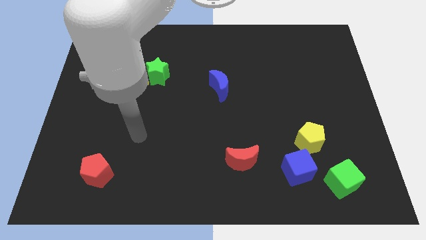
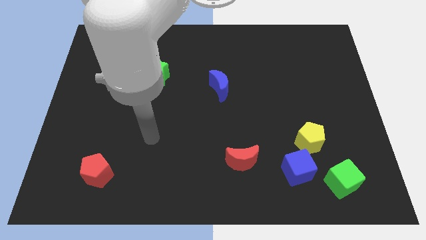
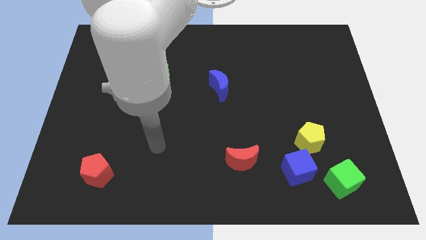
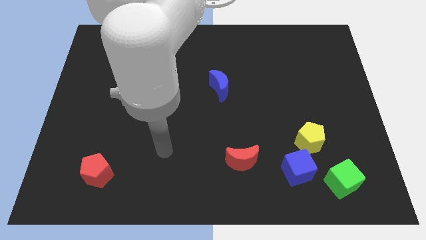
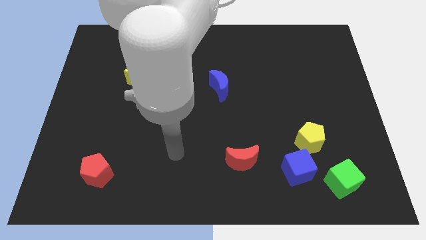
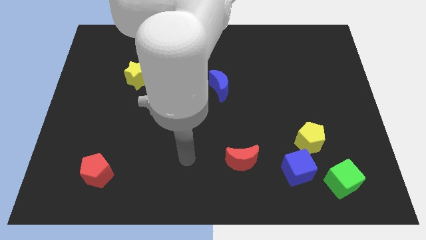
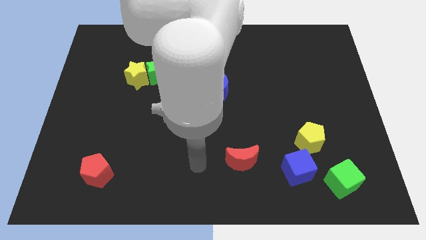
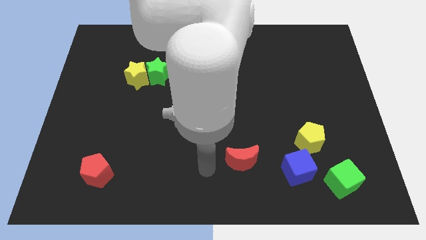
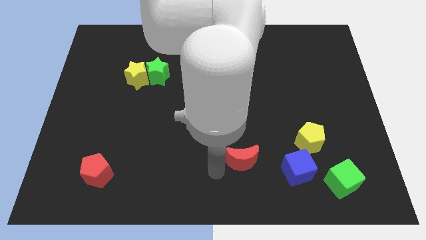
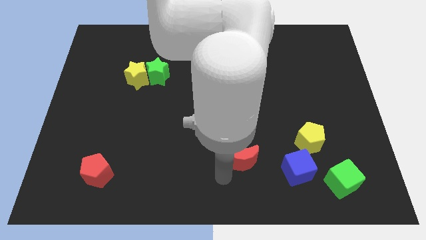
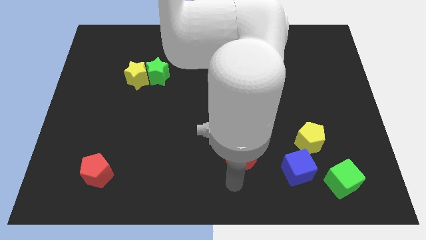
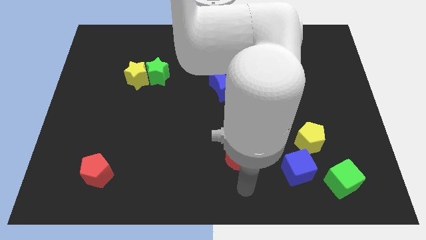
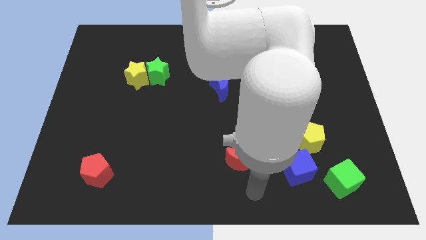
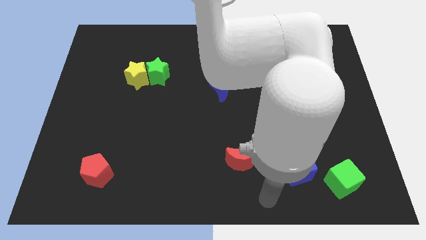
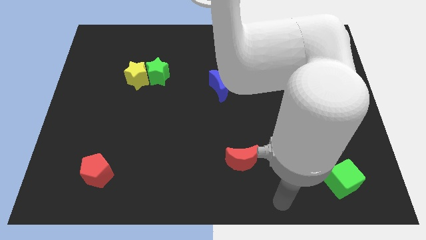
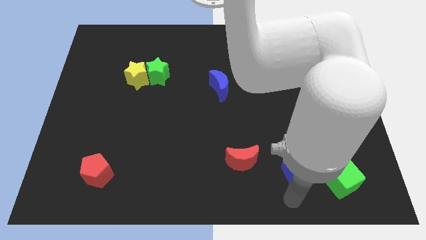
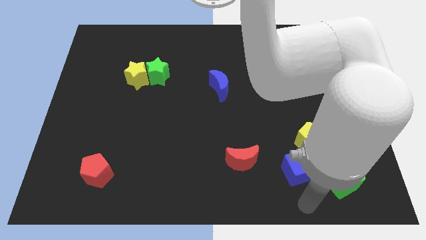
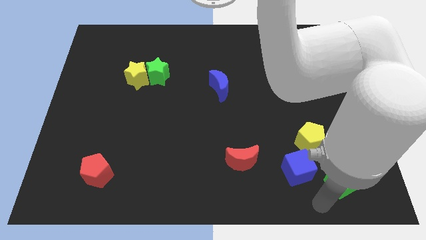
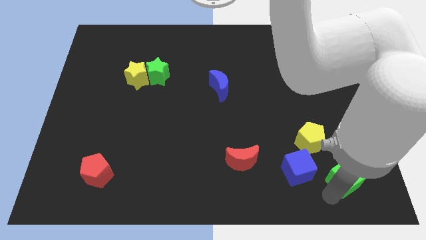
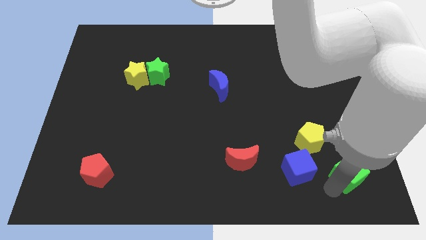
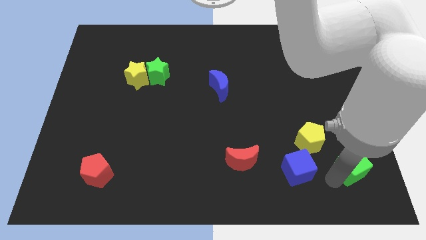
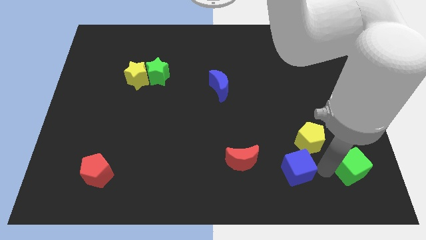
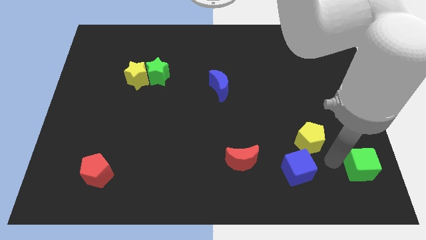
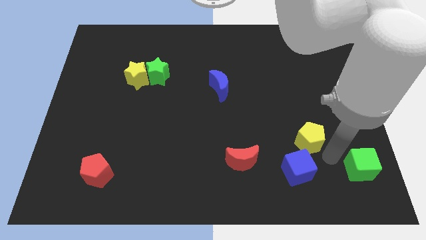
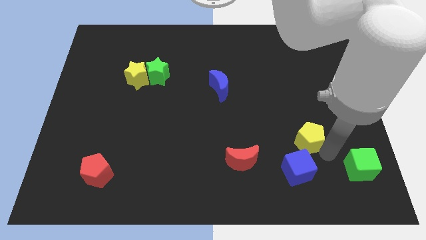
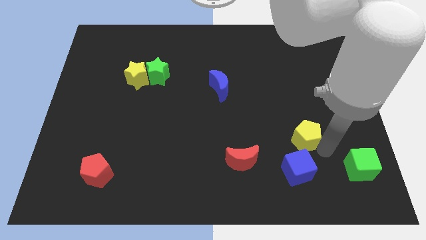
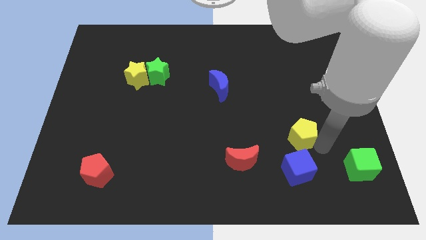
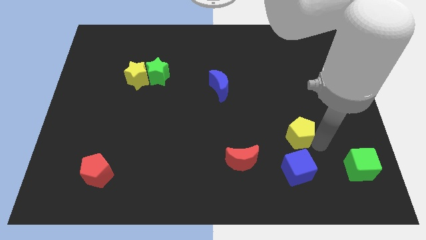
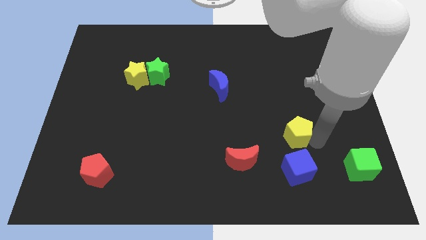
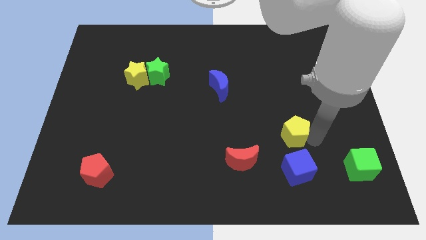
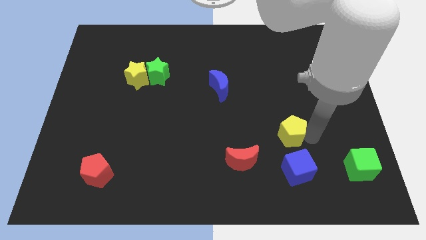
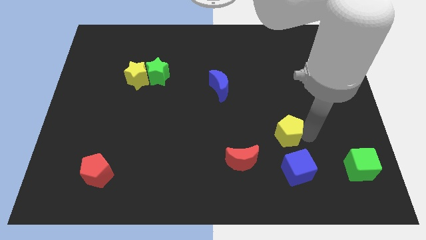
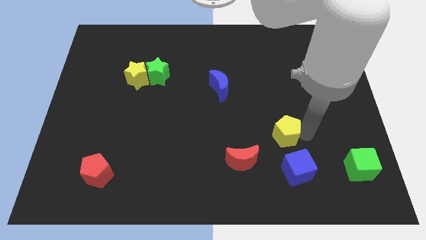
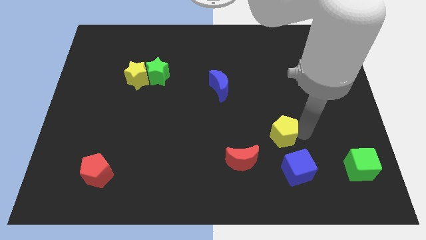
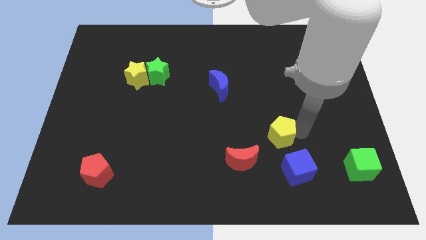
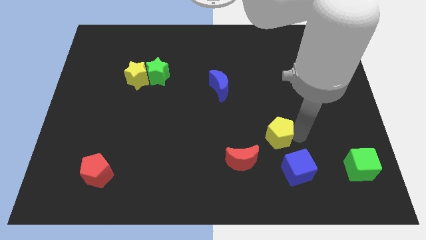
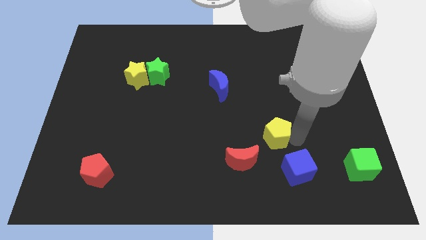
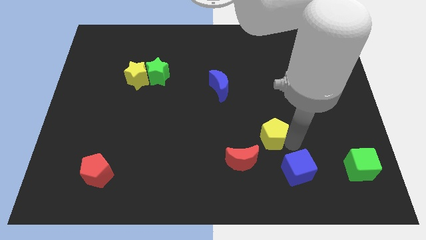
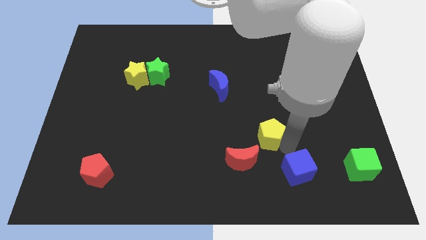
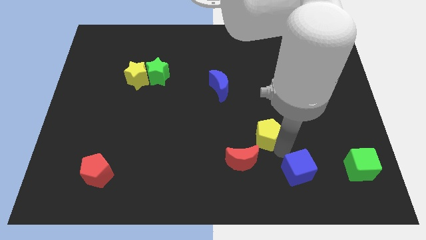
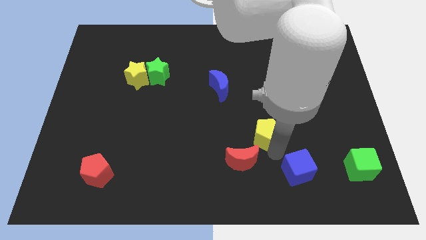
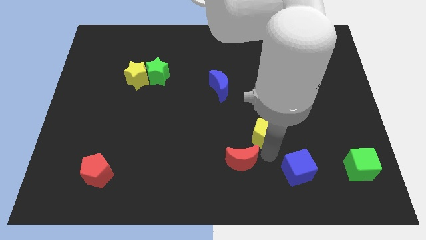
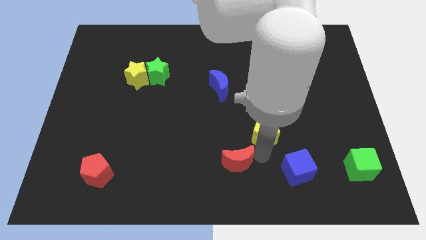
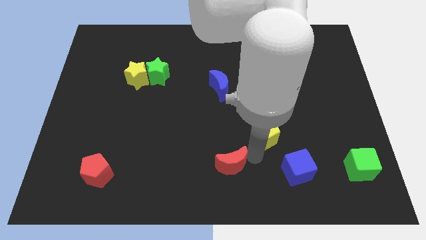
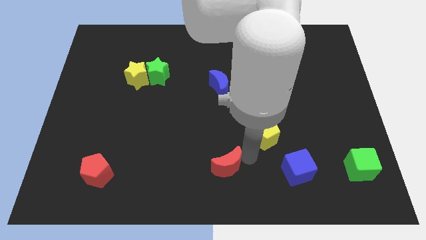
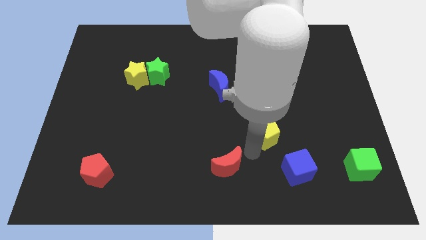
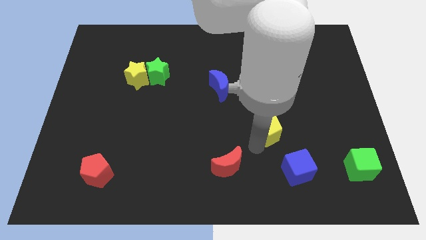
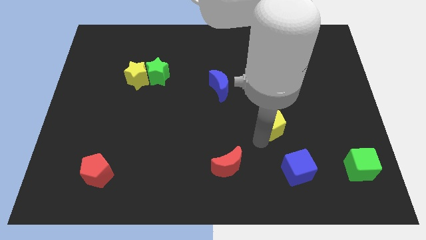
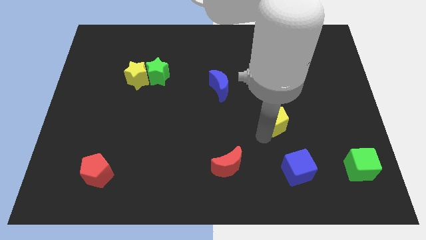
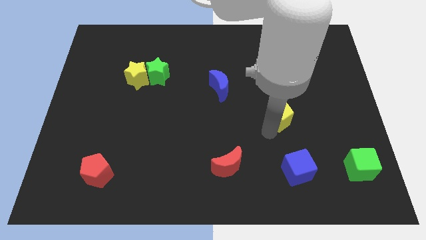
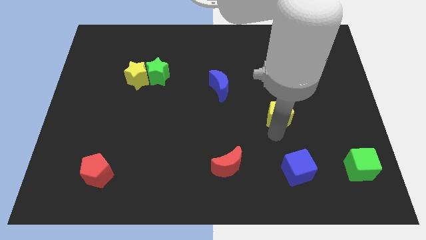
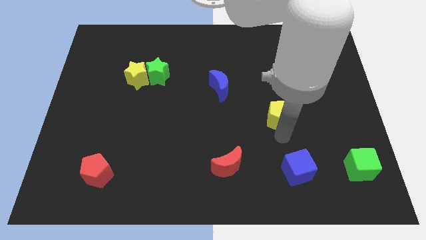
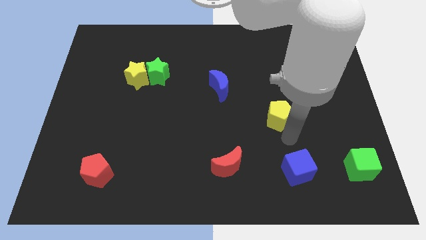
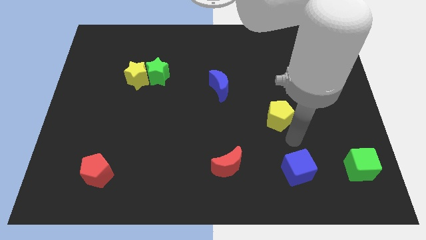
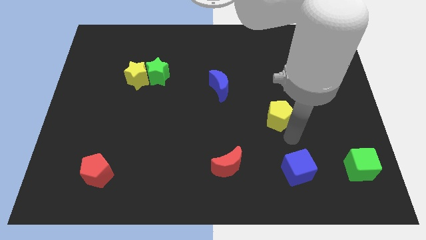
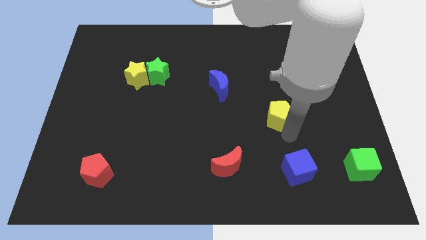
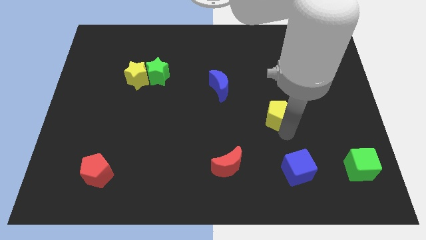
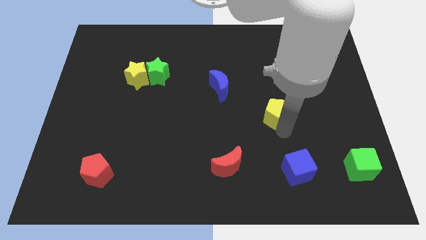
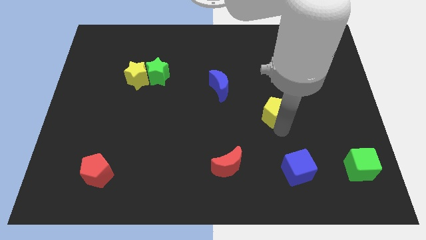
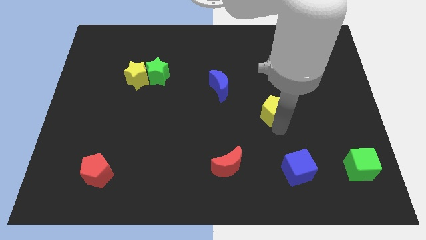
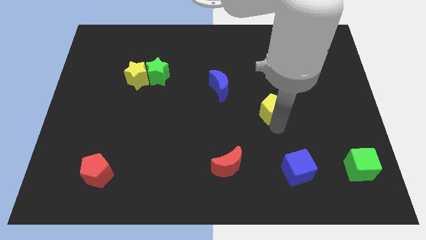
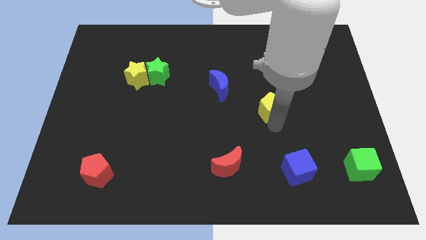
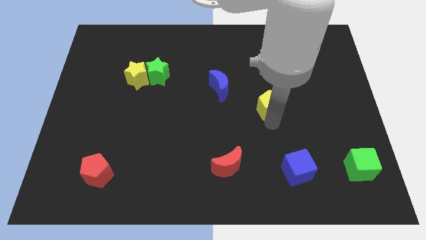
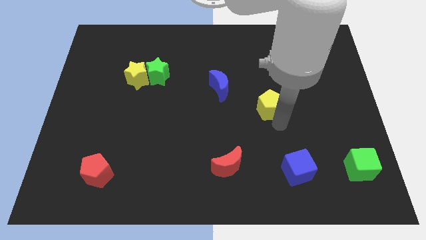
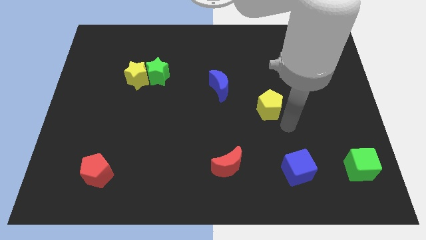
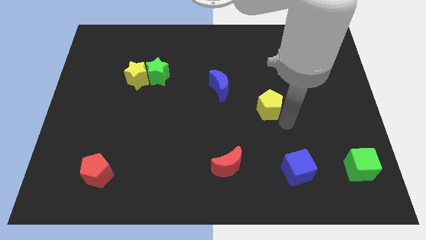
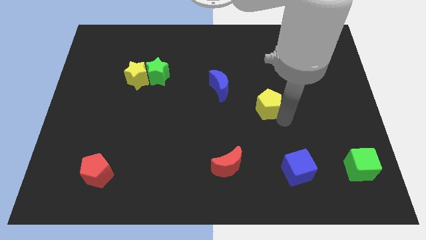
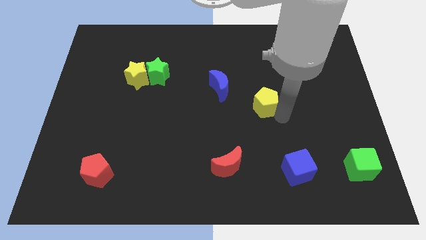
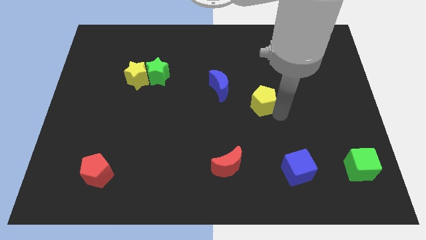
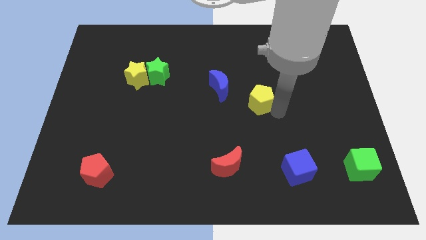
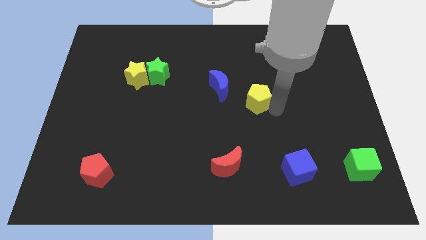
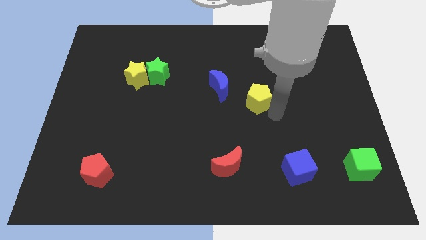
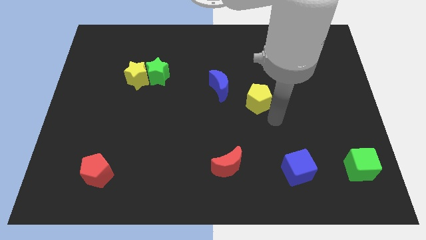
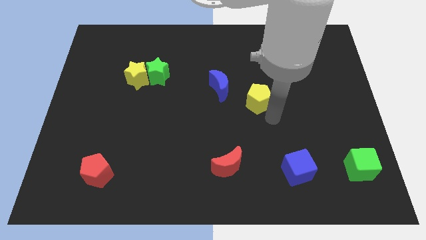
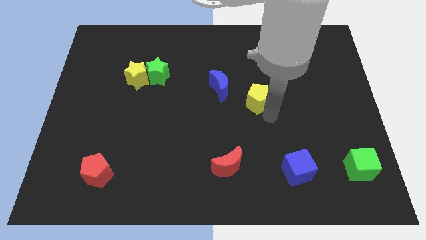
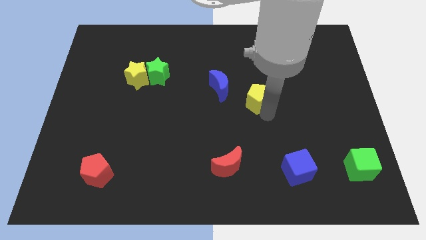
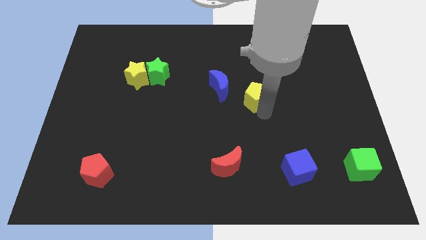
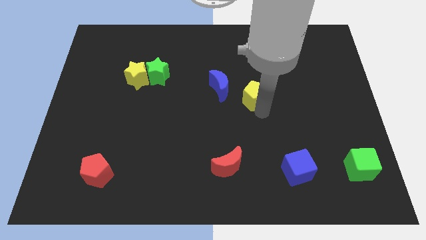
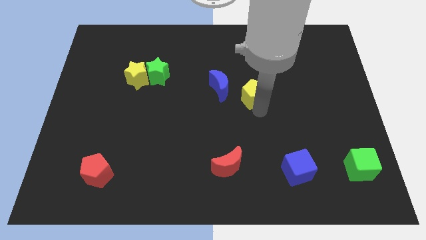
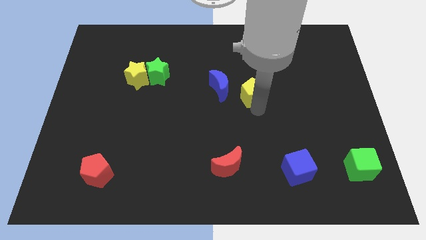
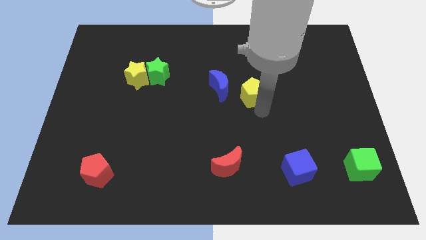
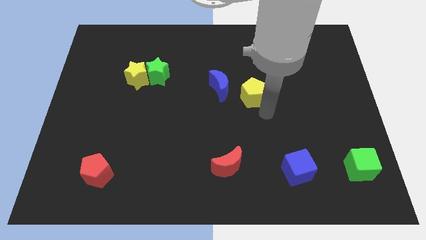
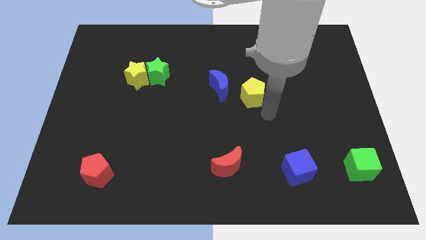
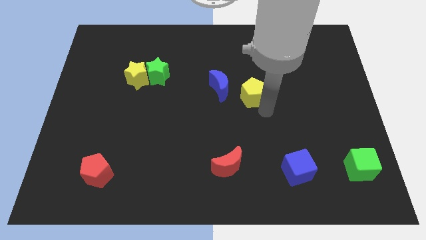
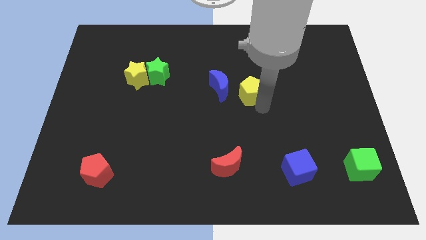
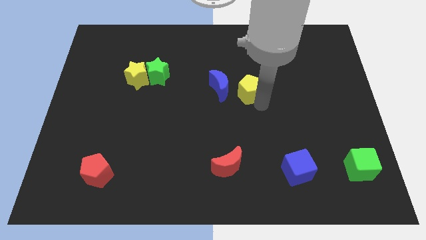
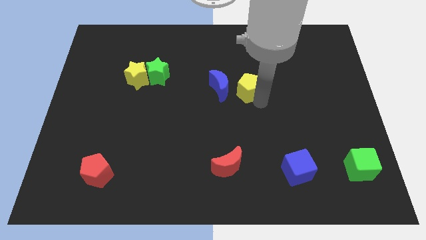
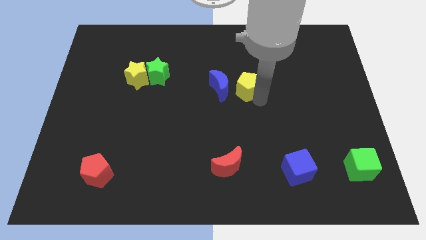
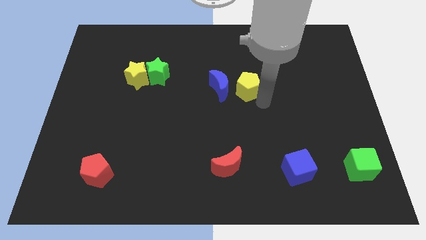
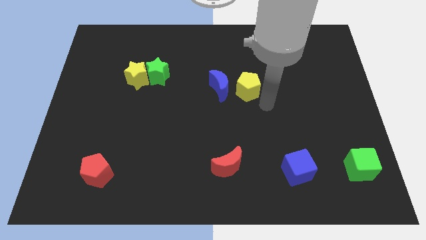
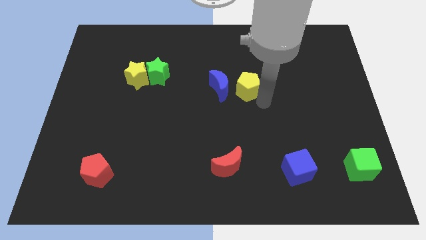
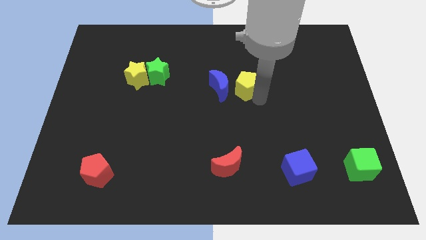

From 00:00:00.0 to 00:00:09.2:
move the yellow pentagon upwards and then to the left
